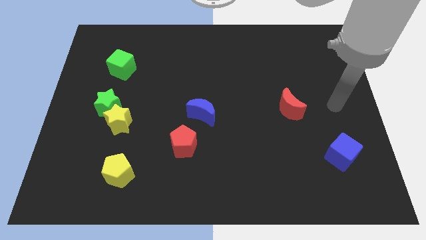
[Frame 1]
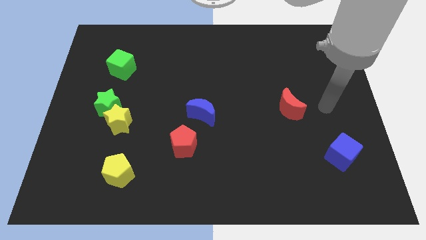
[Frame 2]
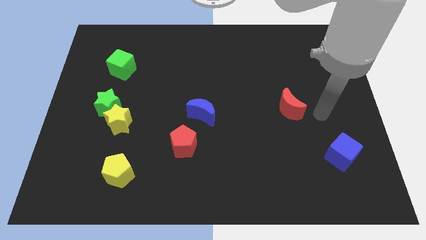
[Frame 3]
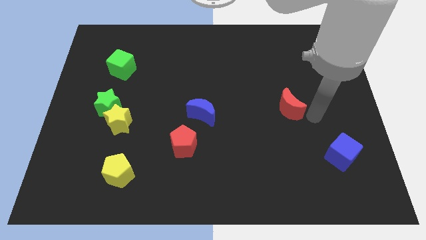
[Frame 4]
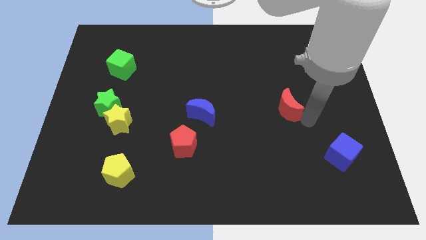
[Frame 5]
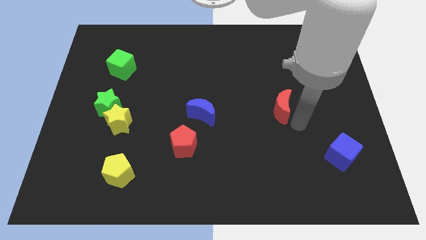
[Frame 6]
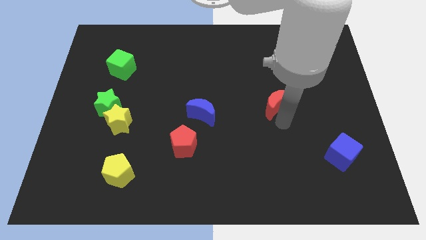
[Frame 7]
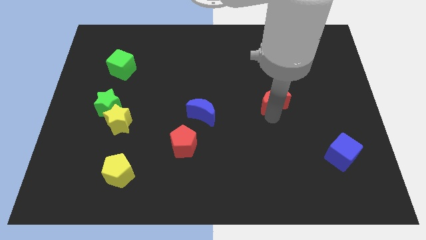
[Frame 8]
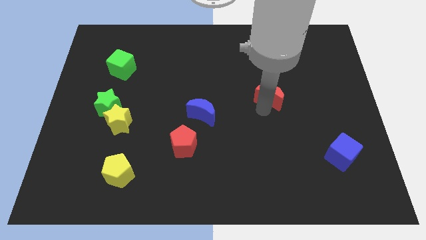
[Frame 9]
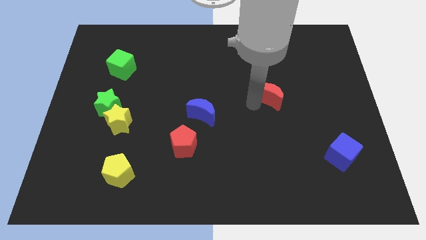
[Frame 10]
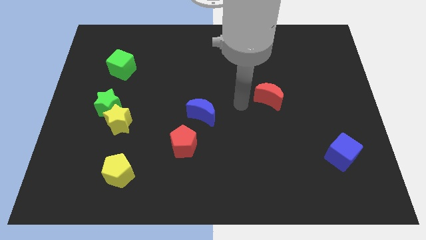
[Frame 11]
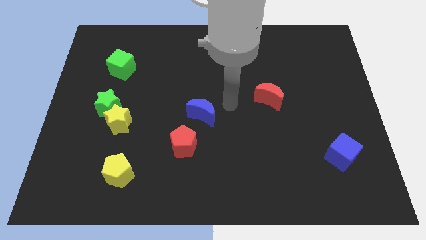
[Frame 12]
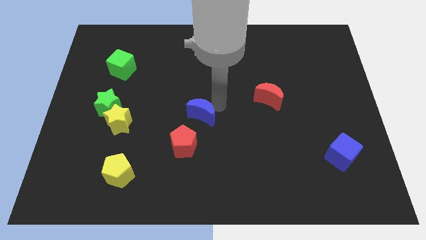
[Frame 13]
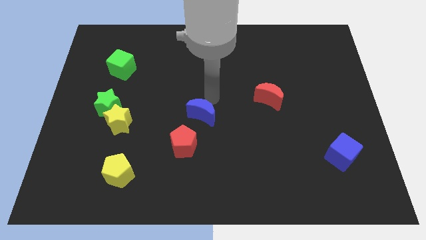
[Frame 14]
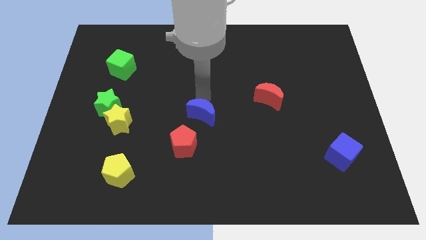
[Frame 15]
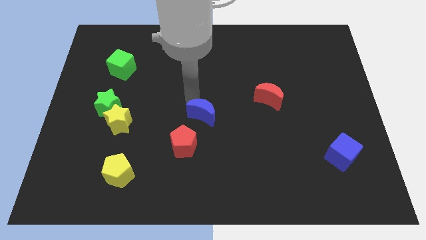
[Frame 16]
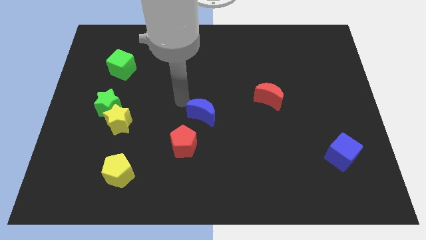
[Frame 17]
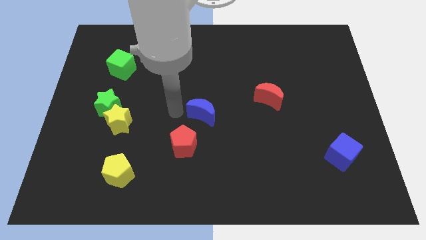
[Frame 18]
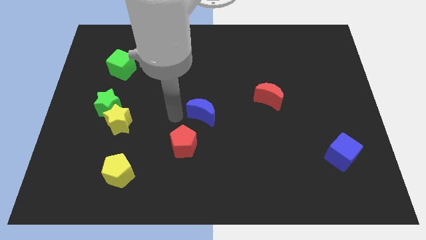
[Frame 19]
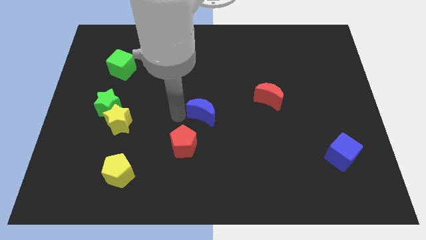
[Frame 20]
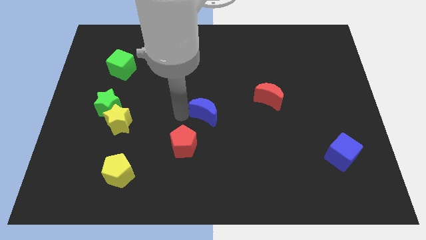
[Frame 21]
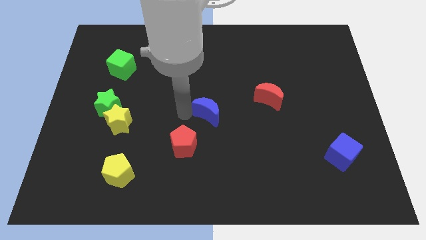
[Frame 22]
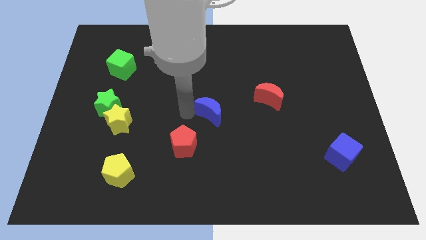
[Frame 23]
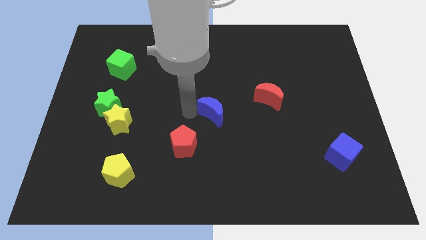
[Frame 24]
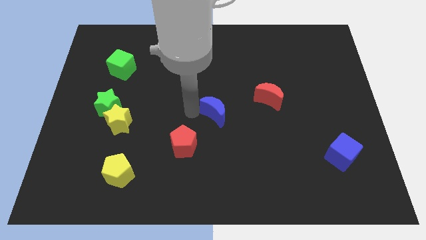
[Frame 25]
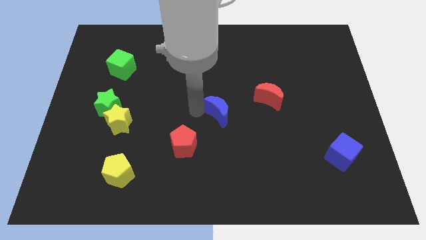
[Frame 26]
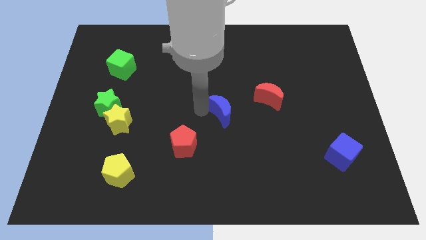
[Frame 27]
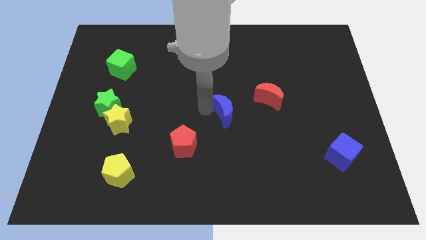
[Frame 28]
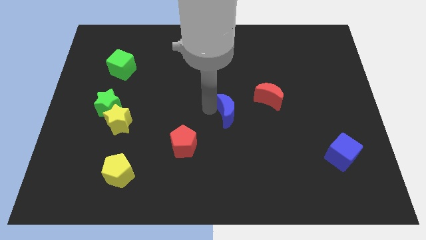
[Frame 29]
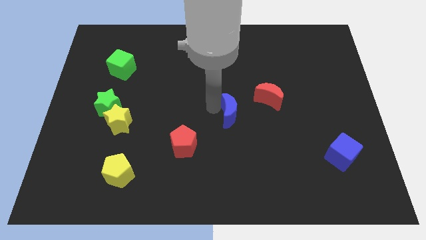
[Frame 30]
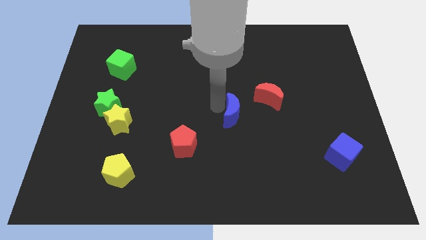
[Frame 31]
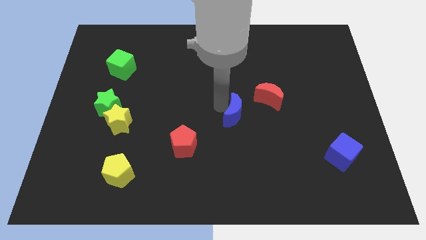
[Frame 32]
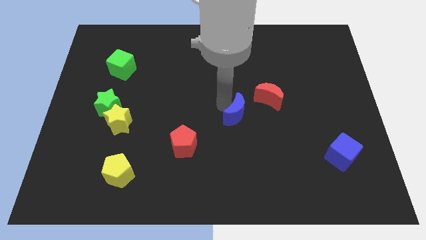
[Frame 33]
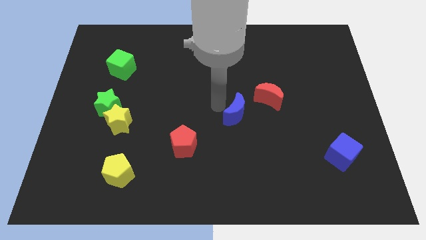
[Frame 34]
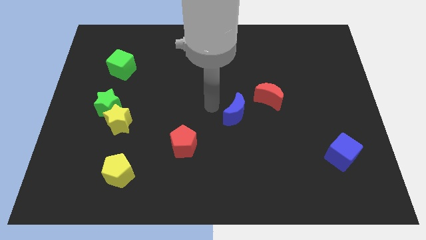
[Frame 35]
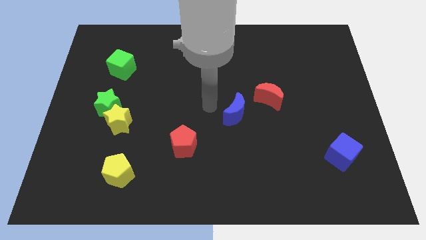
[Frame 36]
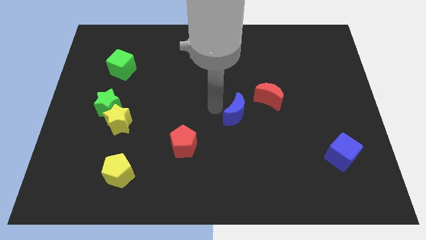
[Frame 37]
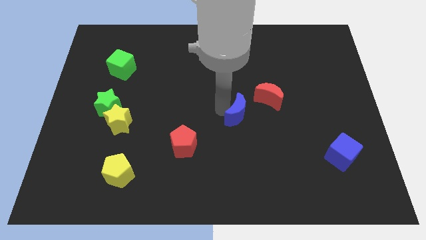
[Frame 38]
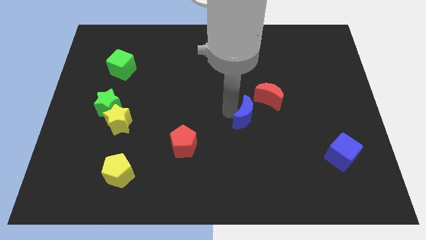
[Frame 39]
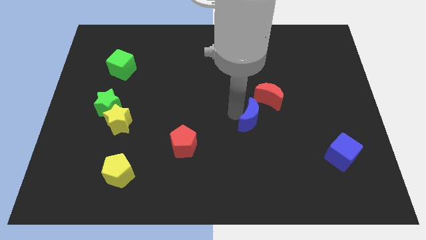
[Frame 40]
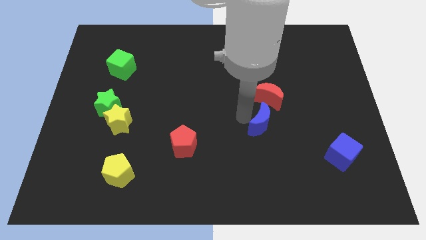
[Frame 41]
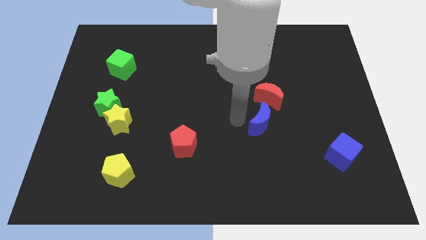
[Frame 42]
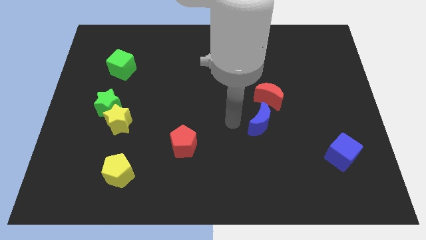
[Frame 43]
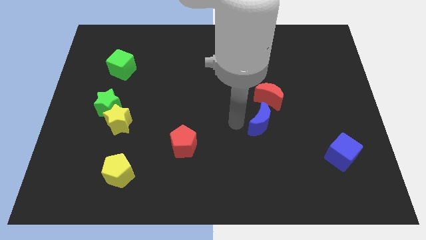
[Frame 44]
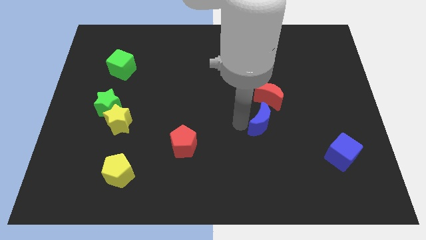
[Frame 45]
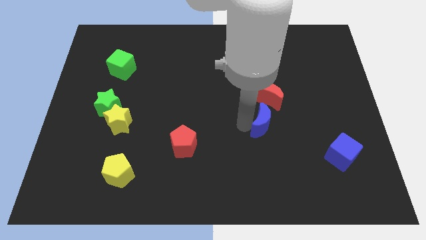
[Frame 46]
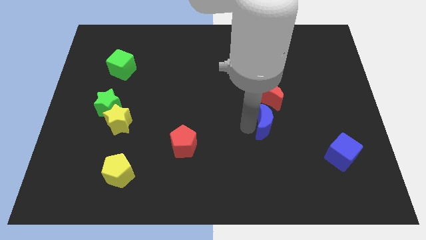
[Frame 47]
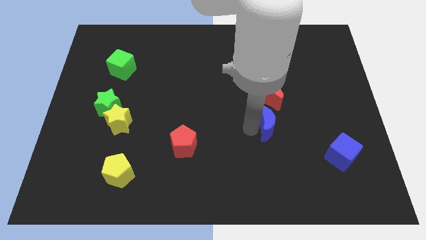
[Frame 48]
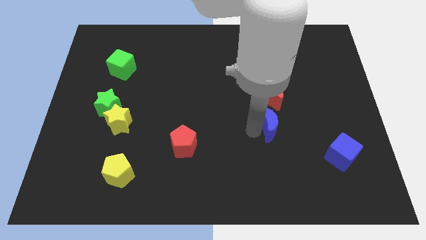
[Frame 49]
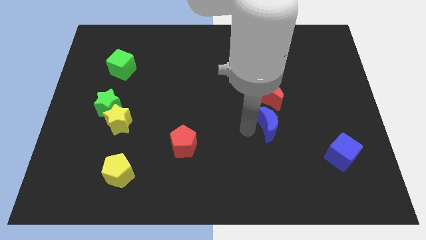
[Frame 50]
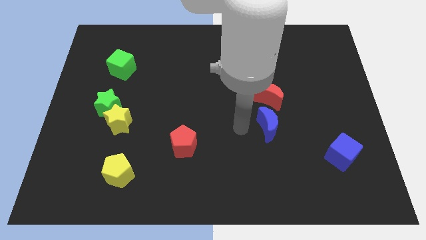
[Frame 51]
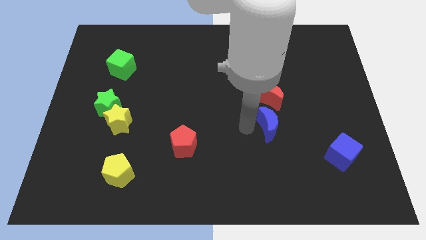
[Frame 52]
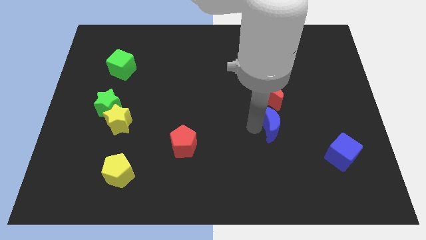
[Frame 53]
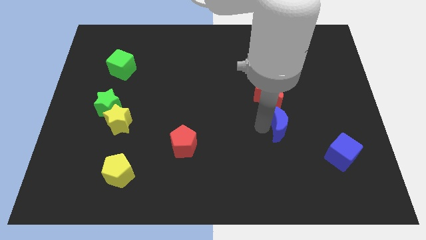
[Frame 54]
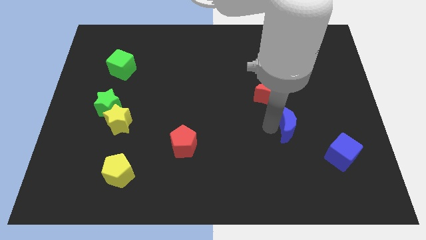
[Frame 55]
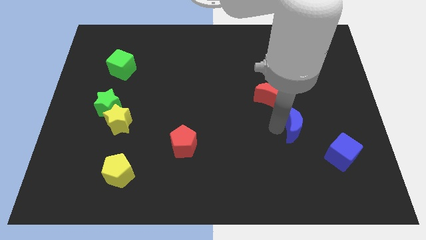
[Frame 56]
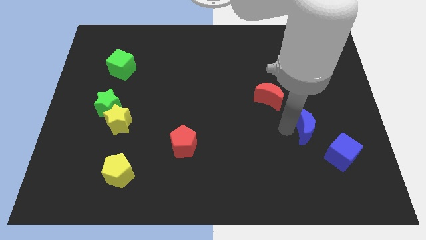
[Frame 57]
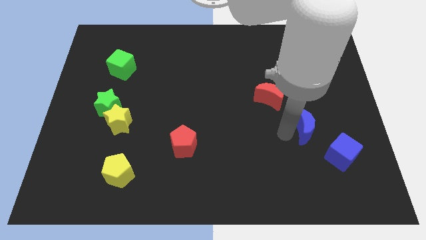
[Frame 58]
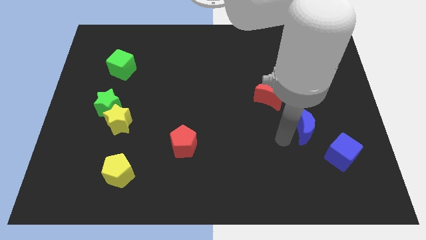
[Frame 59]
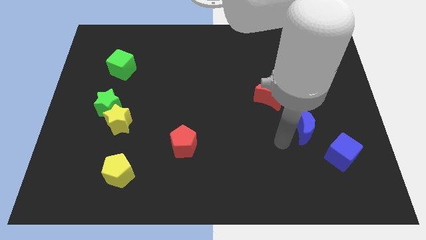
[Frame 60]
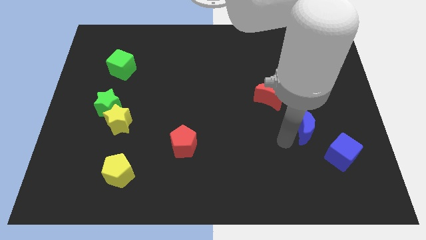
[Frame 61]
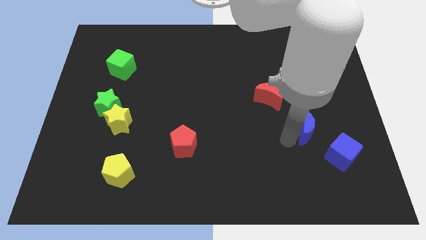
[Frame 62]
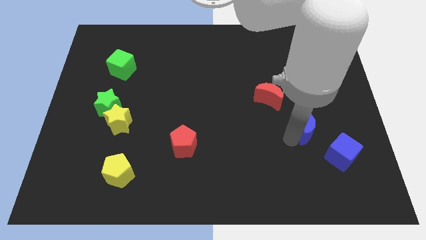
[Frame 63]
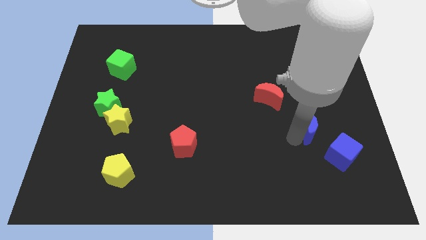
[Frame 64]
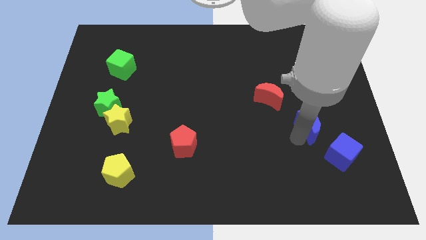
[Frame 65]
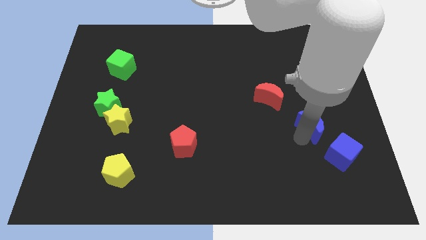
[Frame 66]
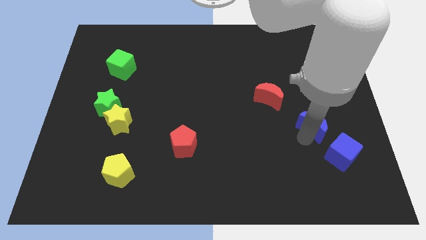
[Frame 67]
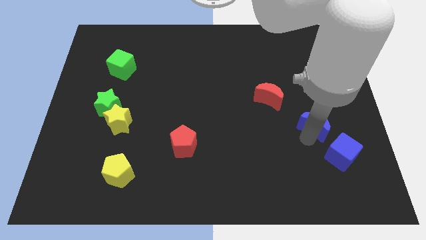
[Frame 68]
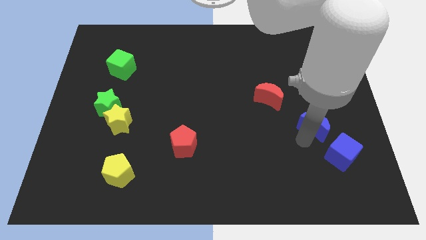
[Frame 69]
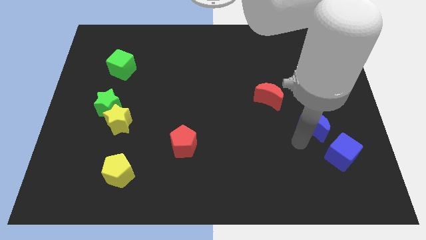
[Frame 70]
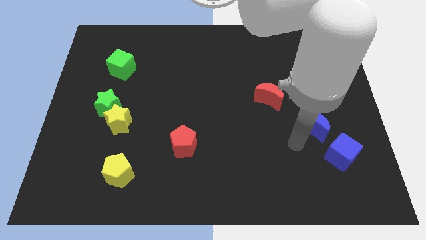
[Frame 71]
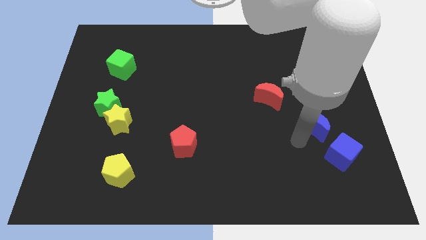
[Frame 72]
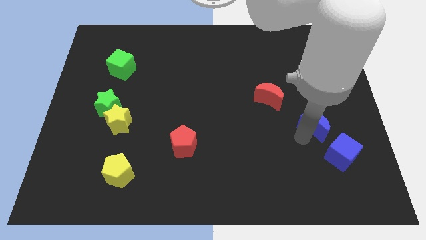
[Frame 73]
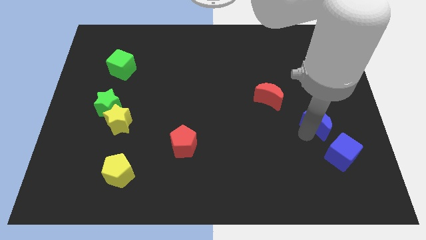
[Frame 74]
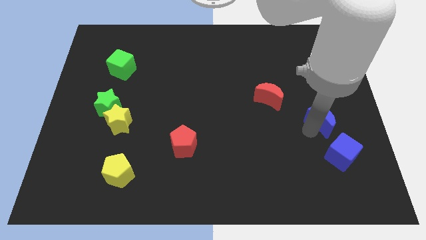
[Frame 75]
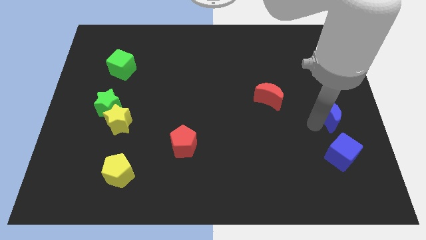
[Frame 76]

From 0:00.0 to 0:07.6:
push the blue moon to the right side of the board
